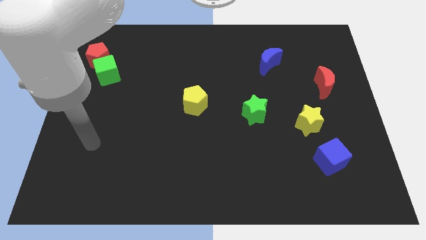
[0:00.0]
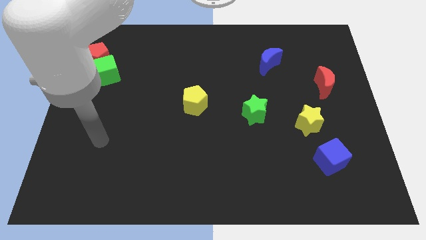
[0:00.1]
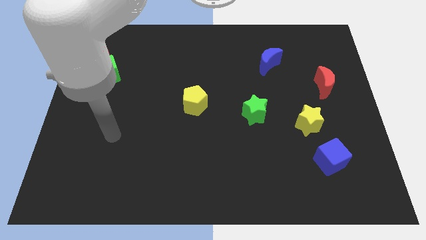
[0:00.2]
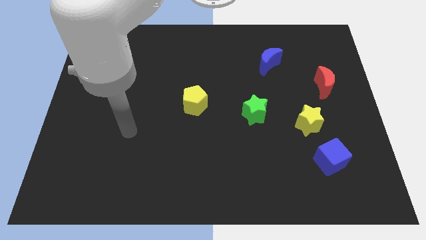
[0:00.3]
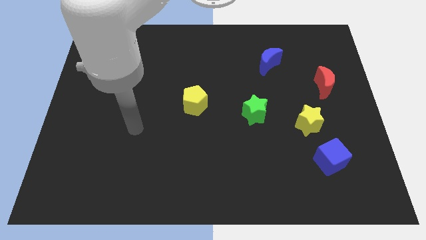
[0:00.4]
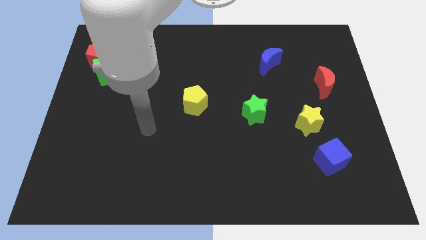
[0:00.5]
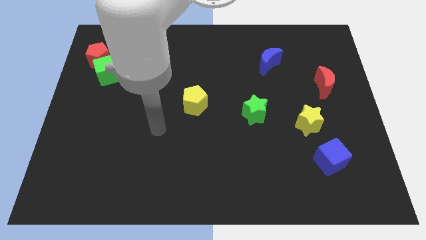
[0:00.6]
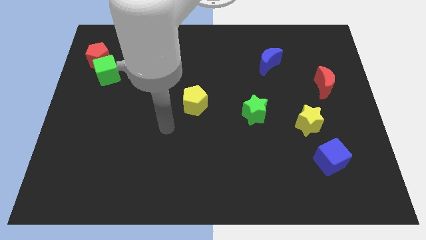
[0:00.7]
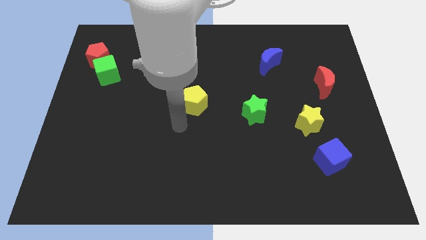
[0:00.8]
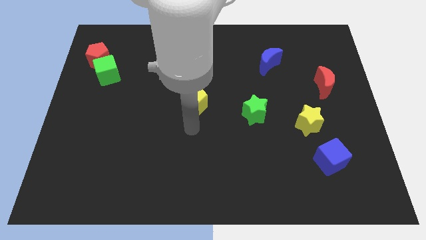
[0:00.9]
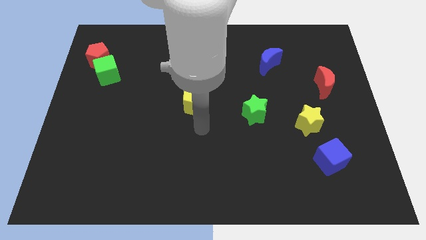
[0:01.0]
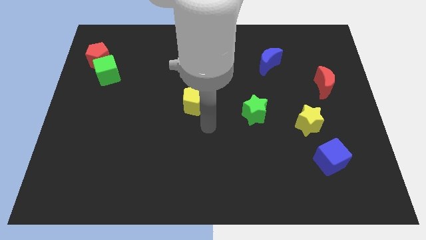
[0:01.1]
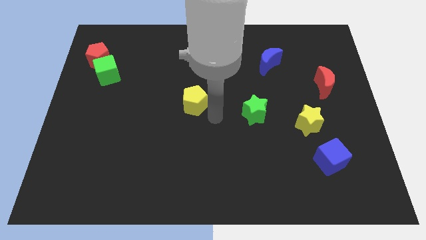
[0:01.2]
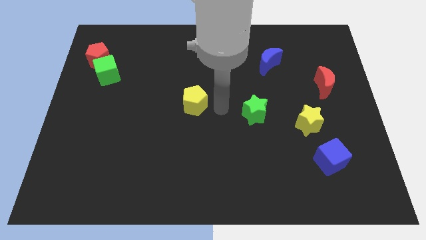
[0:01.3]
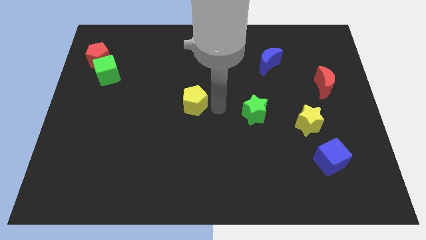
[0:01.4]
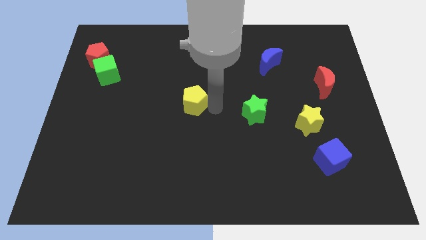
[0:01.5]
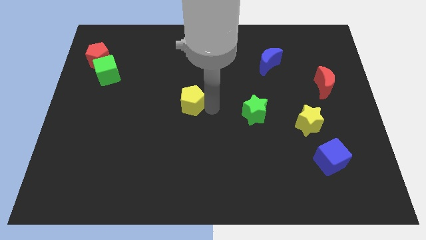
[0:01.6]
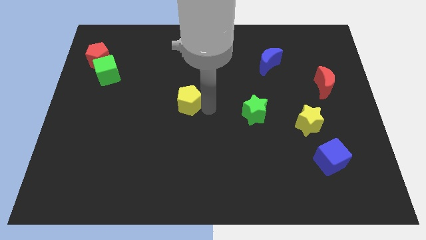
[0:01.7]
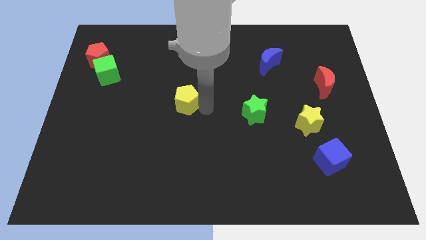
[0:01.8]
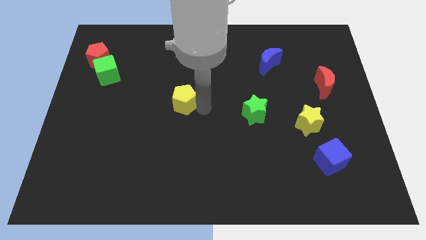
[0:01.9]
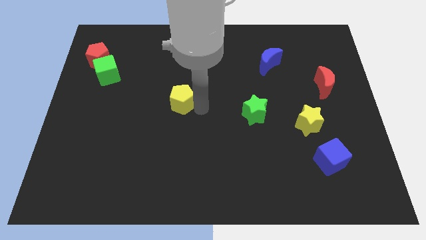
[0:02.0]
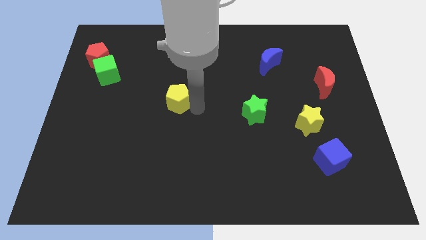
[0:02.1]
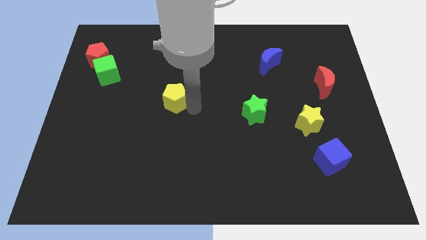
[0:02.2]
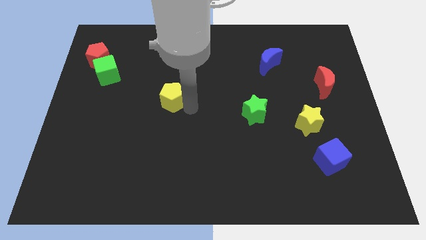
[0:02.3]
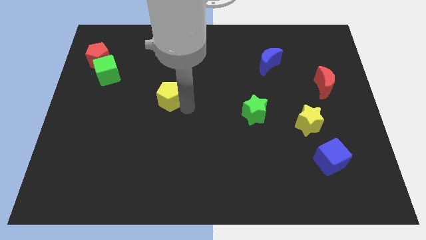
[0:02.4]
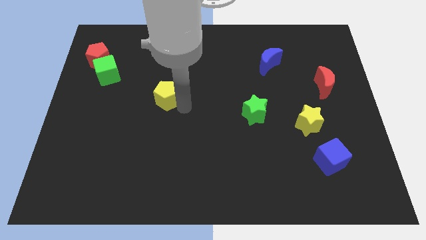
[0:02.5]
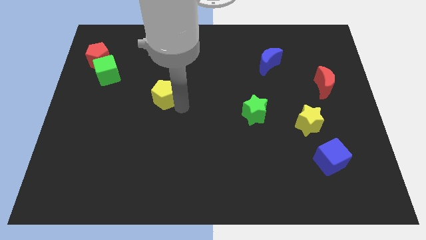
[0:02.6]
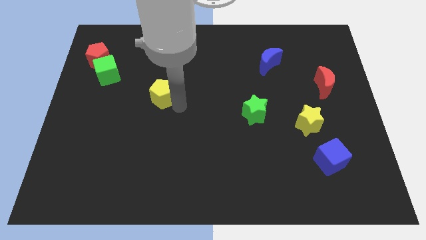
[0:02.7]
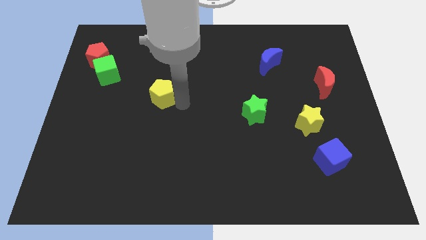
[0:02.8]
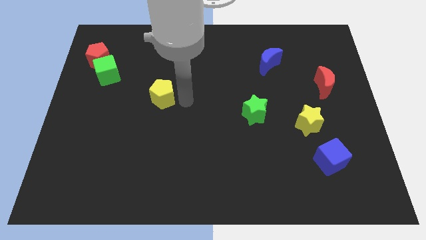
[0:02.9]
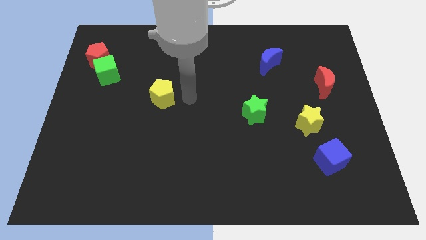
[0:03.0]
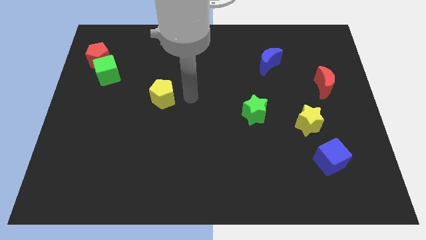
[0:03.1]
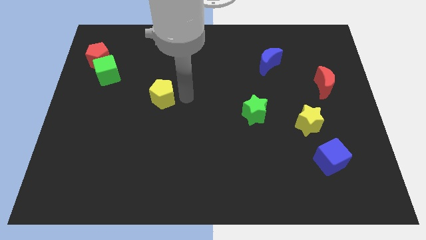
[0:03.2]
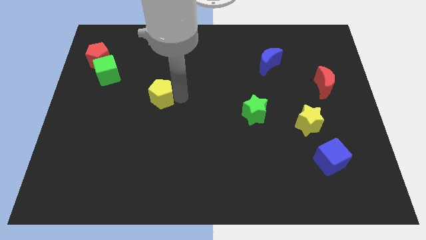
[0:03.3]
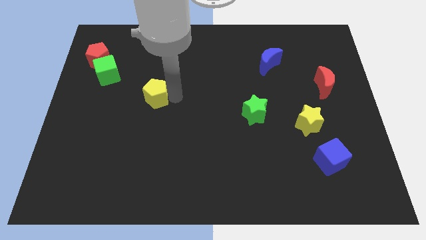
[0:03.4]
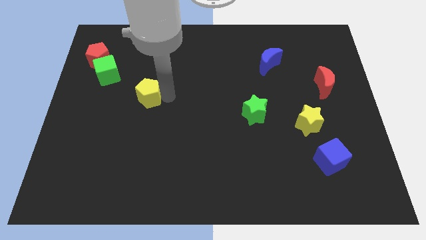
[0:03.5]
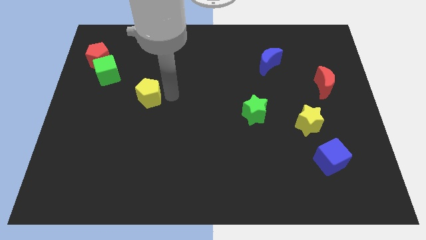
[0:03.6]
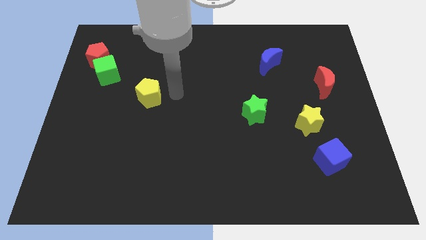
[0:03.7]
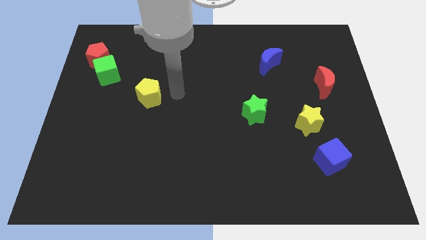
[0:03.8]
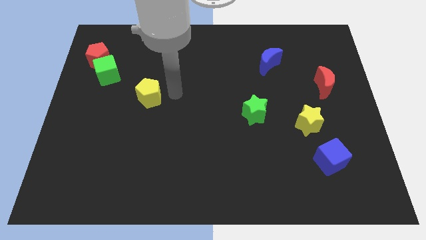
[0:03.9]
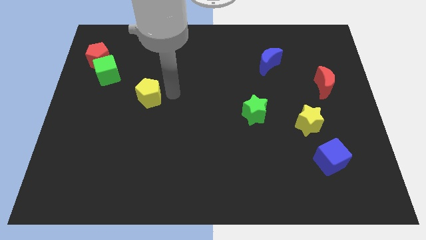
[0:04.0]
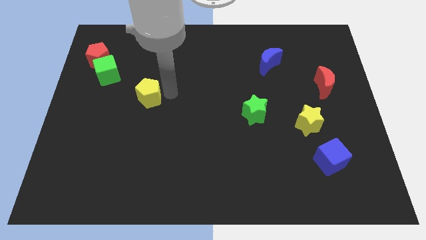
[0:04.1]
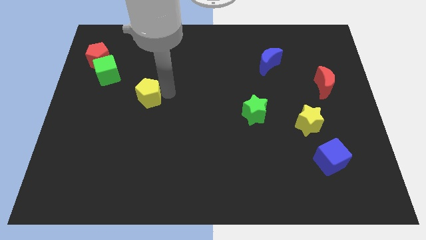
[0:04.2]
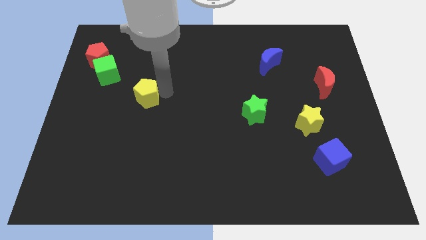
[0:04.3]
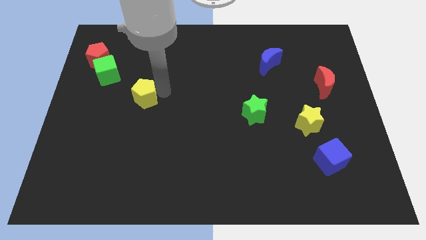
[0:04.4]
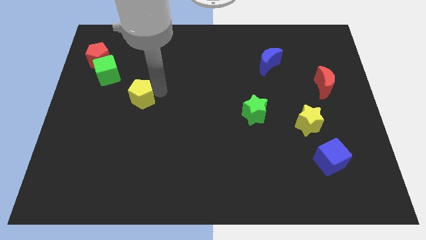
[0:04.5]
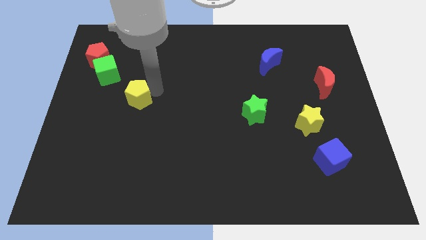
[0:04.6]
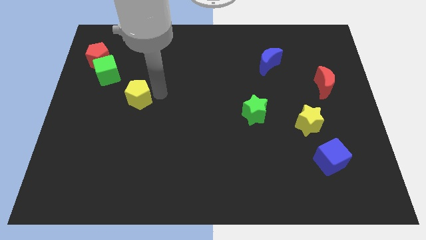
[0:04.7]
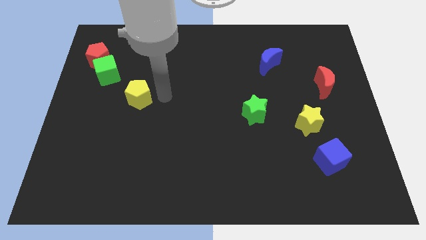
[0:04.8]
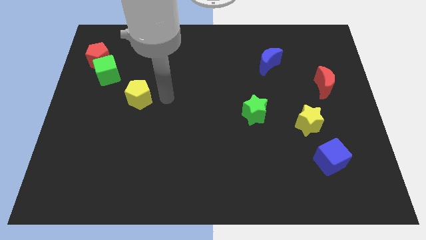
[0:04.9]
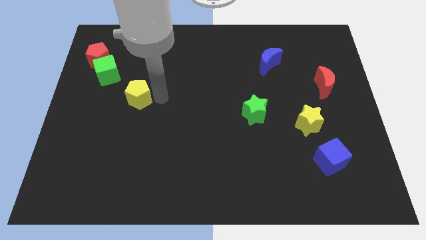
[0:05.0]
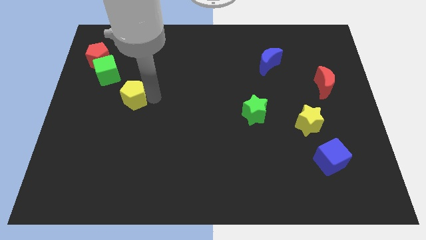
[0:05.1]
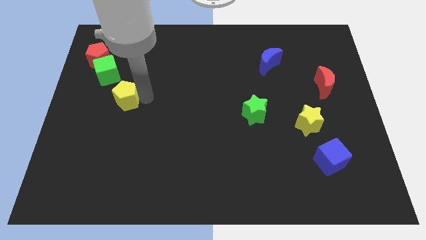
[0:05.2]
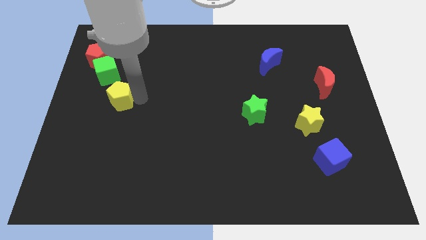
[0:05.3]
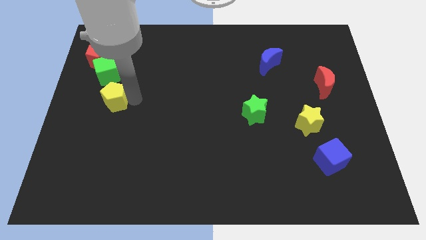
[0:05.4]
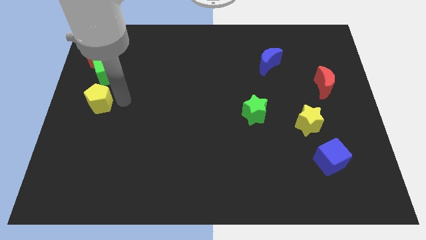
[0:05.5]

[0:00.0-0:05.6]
move the yellow pentagon to the center left
